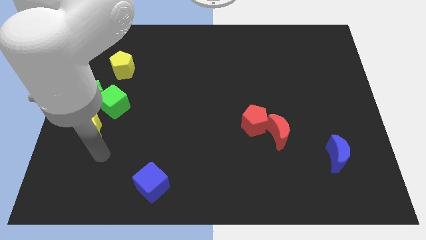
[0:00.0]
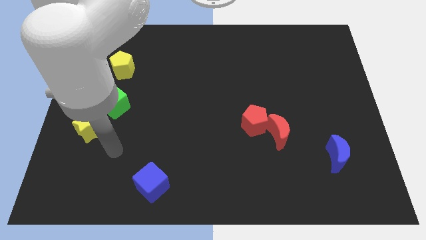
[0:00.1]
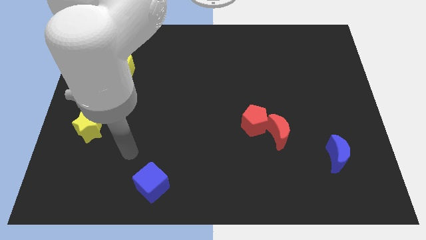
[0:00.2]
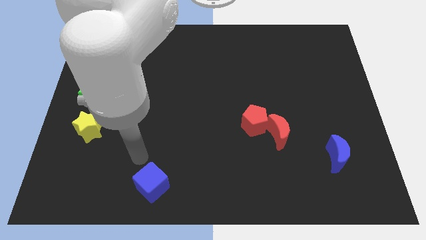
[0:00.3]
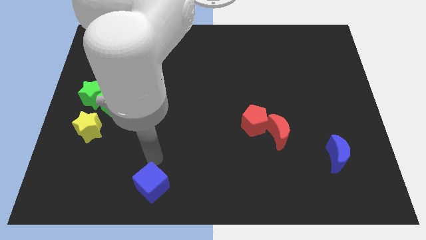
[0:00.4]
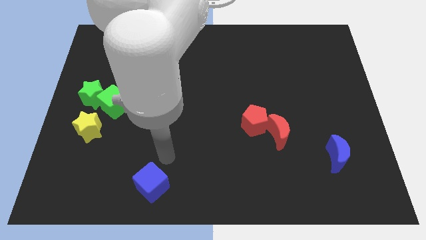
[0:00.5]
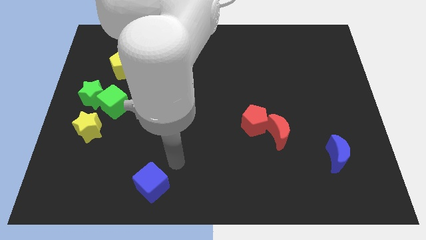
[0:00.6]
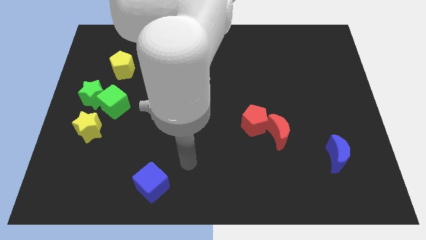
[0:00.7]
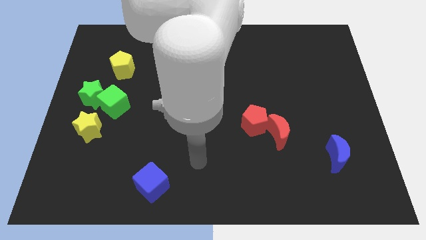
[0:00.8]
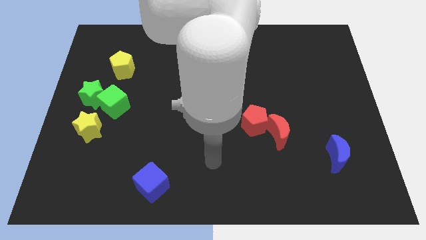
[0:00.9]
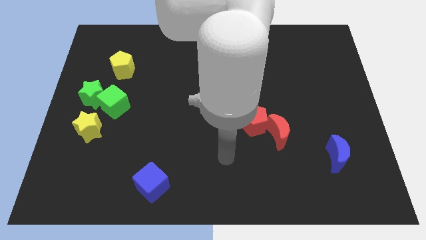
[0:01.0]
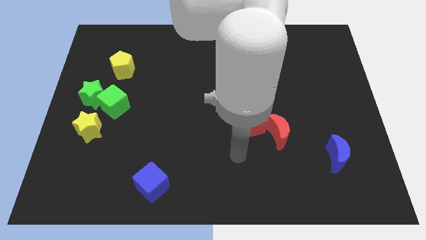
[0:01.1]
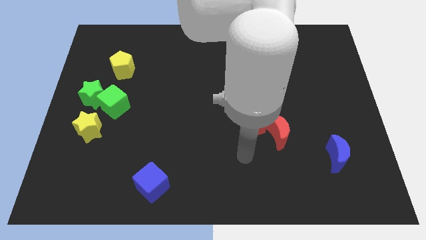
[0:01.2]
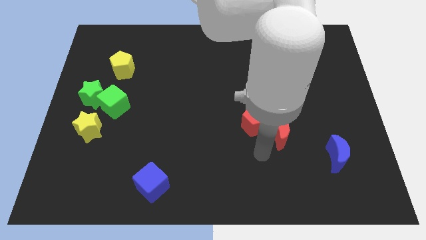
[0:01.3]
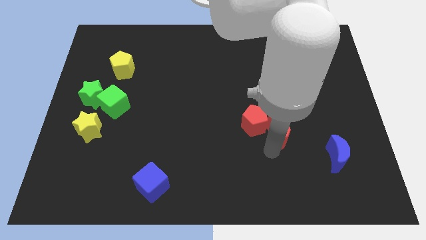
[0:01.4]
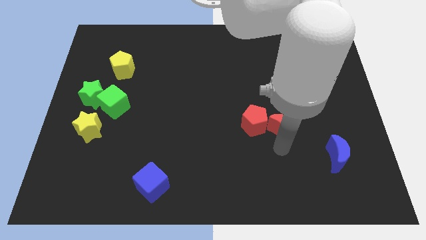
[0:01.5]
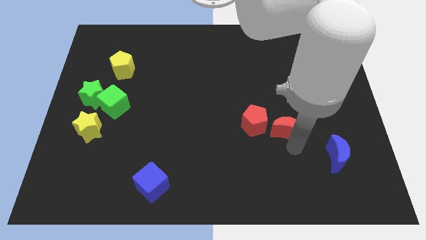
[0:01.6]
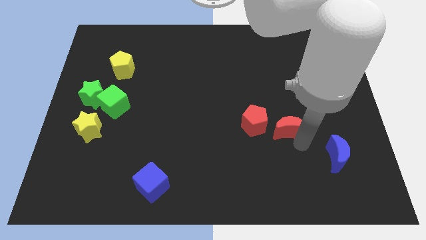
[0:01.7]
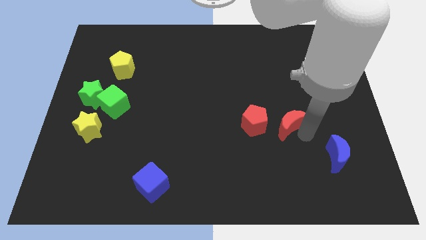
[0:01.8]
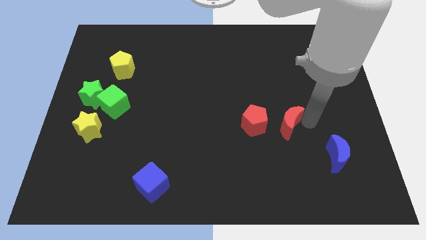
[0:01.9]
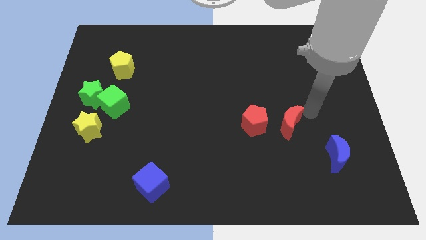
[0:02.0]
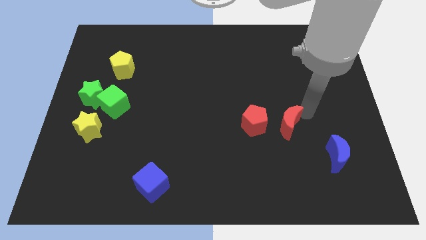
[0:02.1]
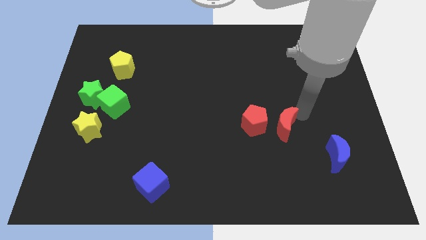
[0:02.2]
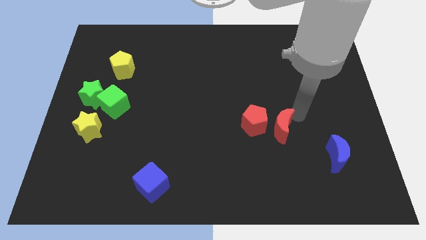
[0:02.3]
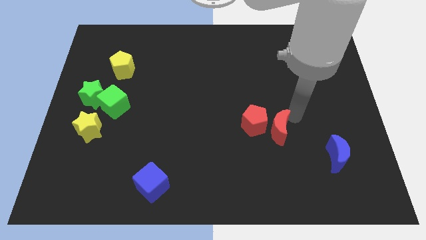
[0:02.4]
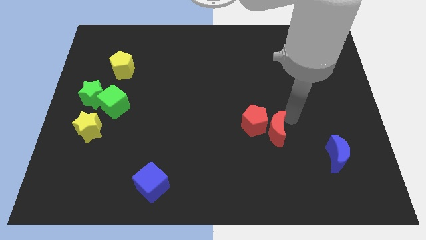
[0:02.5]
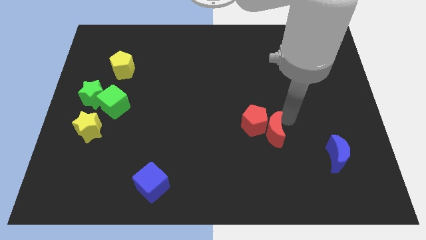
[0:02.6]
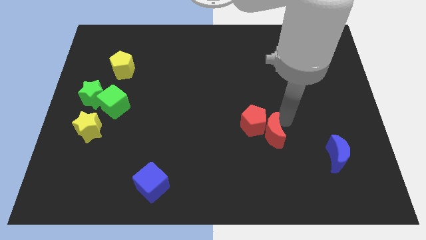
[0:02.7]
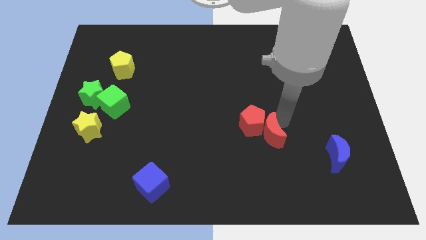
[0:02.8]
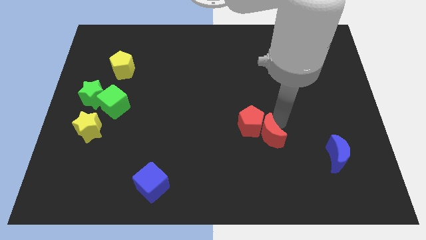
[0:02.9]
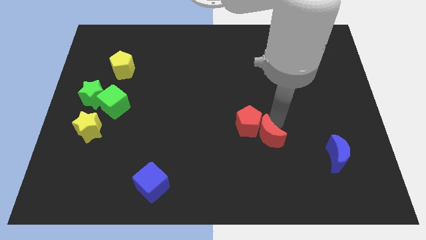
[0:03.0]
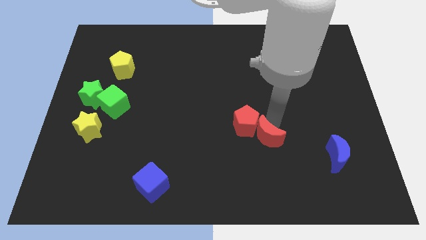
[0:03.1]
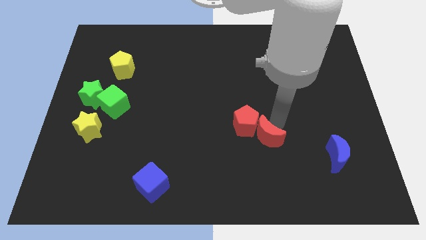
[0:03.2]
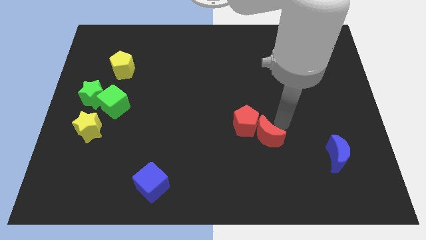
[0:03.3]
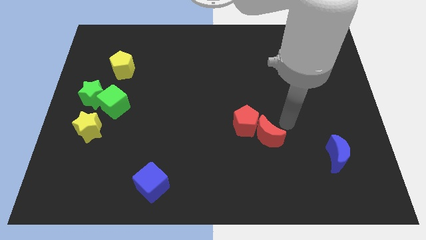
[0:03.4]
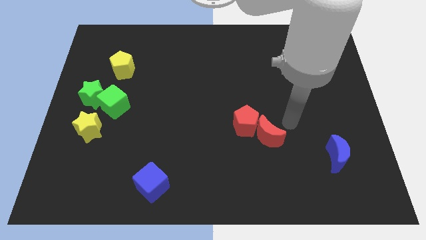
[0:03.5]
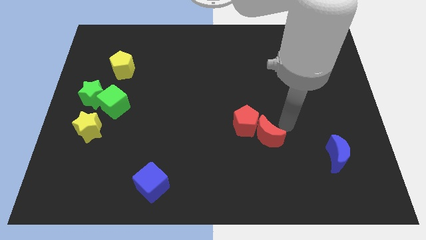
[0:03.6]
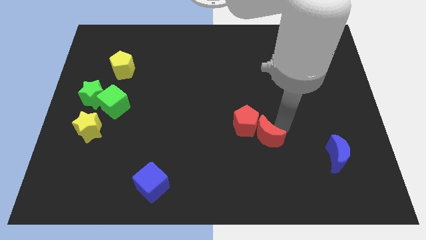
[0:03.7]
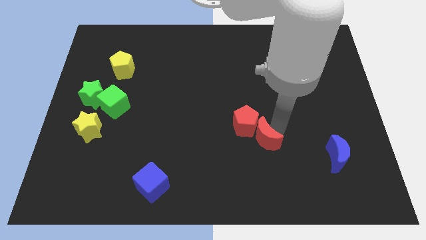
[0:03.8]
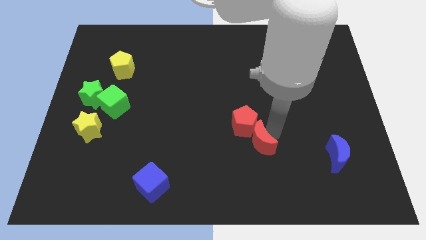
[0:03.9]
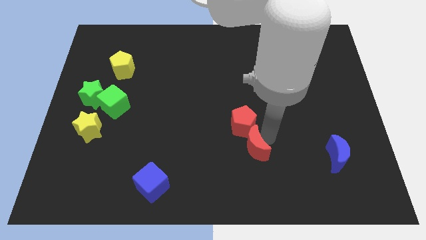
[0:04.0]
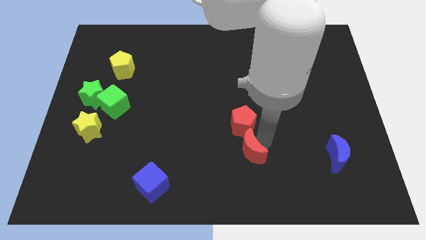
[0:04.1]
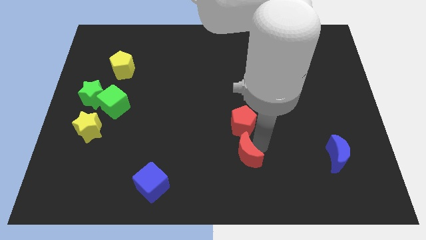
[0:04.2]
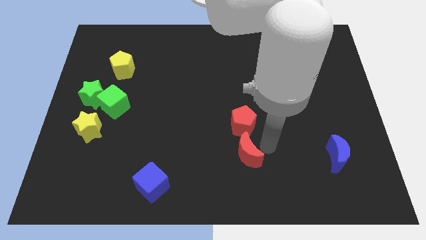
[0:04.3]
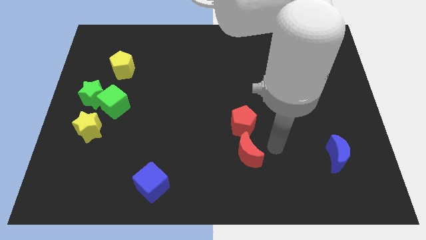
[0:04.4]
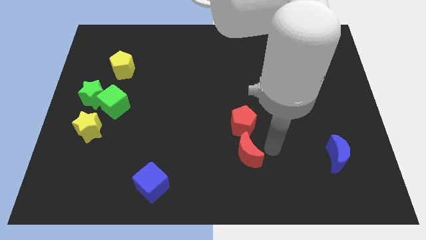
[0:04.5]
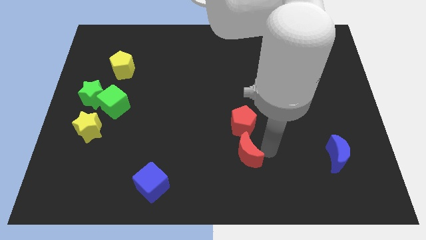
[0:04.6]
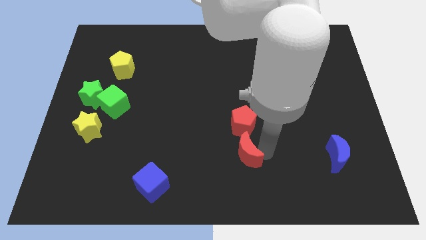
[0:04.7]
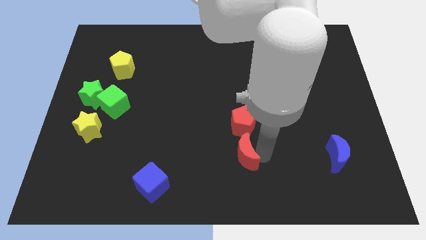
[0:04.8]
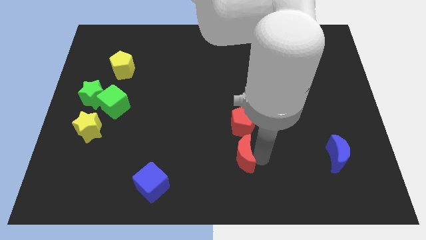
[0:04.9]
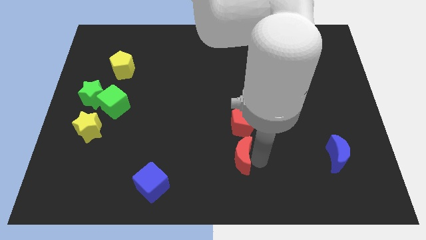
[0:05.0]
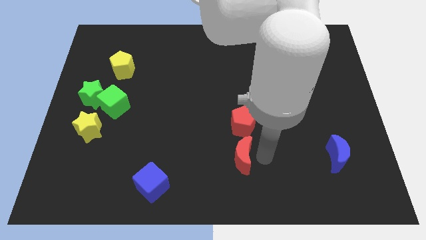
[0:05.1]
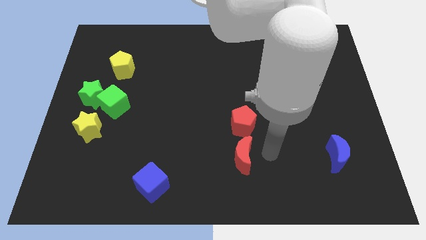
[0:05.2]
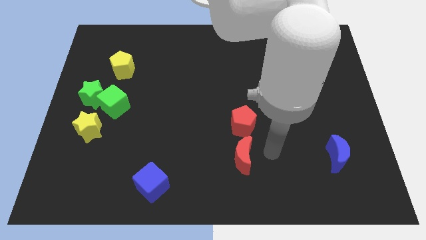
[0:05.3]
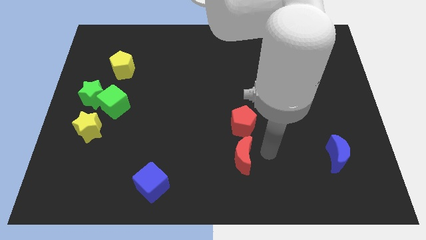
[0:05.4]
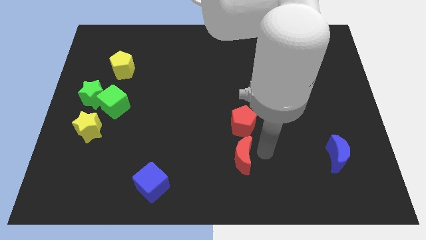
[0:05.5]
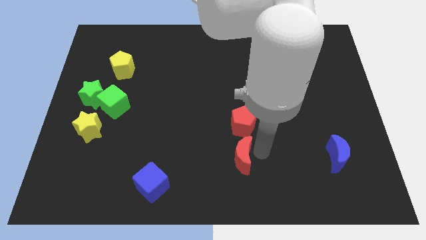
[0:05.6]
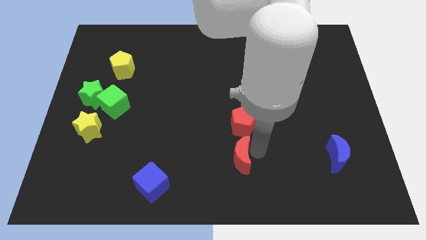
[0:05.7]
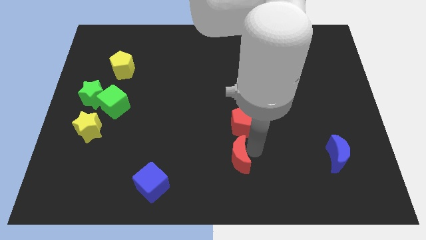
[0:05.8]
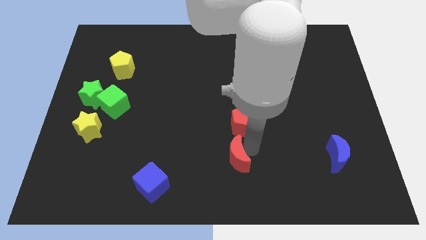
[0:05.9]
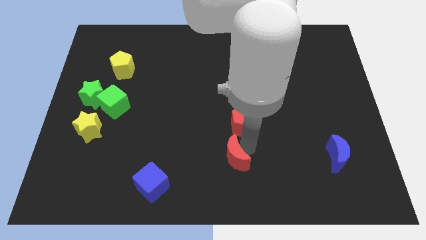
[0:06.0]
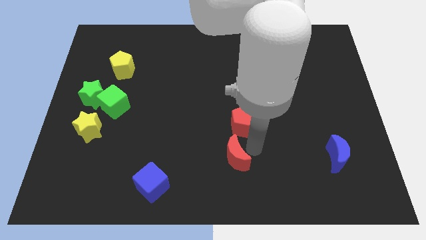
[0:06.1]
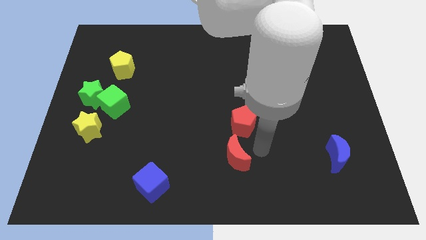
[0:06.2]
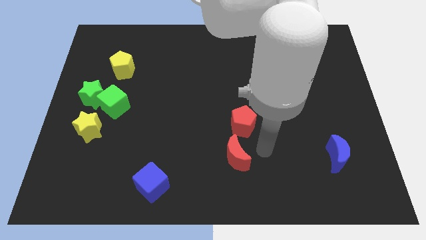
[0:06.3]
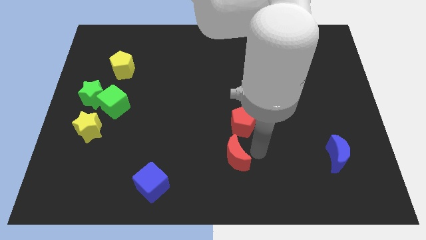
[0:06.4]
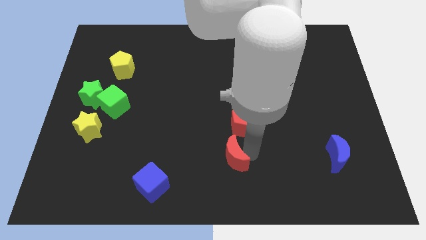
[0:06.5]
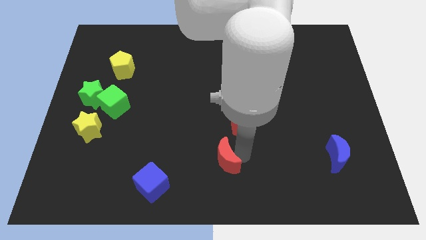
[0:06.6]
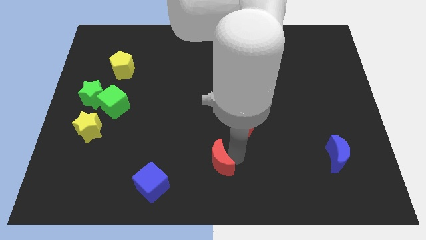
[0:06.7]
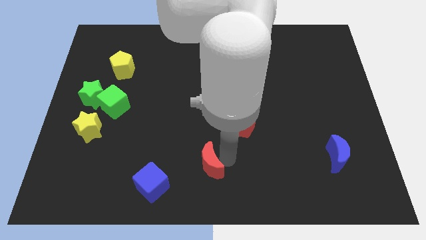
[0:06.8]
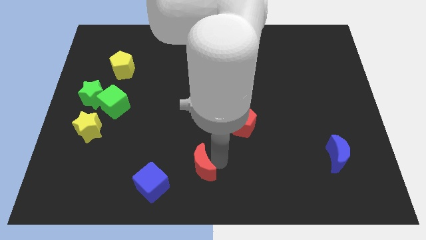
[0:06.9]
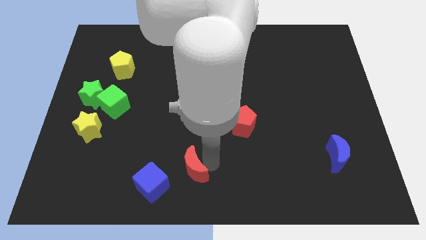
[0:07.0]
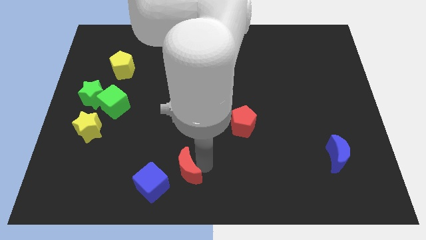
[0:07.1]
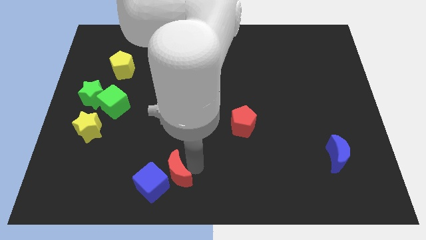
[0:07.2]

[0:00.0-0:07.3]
move the red moon next to the blue cube

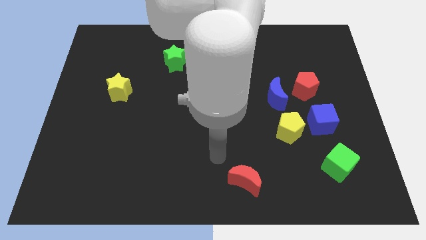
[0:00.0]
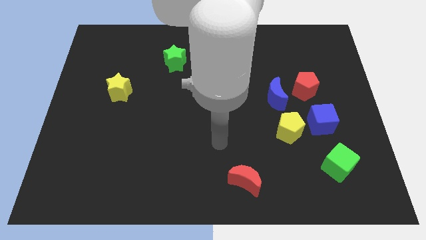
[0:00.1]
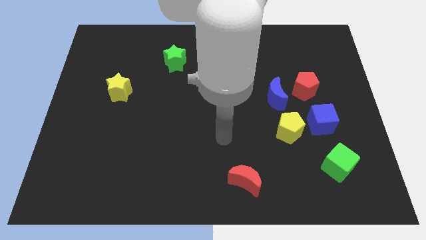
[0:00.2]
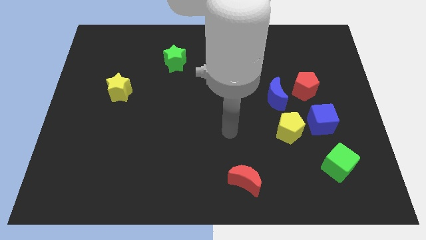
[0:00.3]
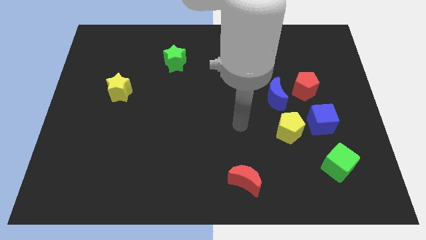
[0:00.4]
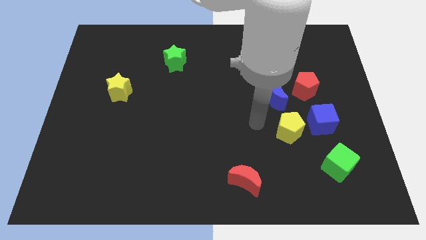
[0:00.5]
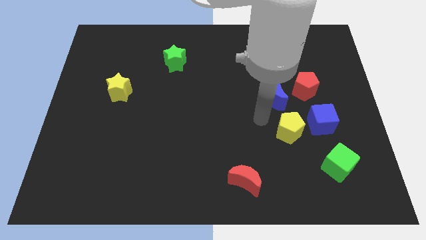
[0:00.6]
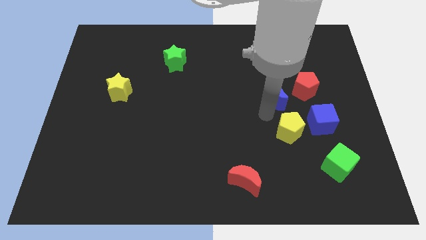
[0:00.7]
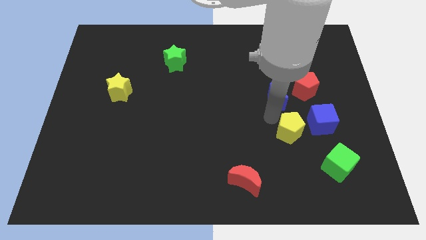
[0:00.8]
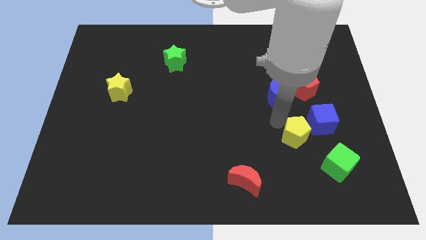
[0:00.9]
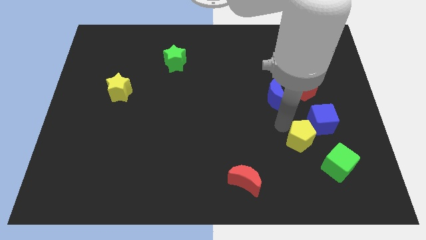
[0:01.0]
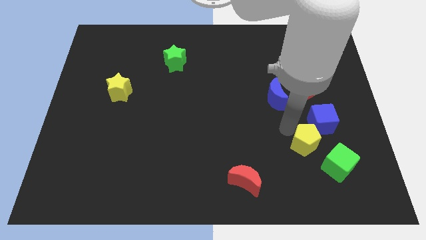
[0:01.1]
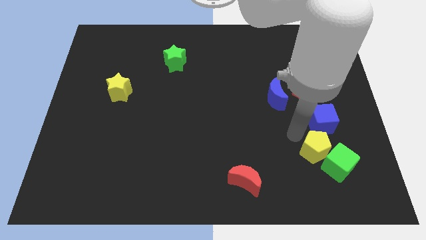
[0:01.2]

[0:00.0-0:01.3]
move the yellow pentagon close to the green cube
